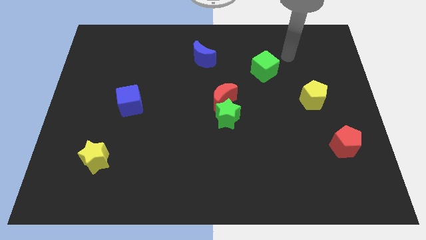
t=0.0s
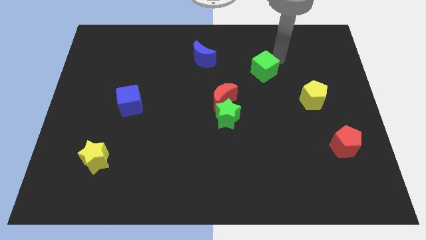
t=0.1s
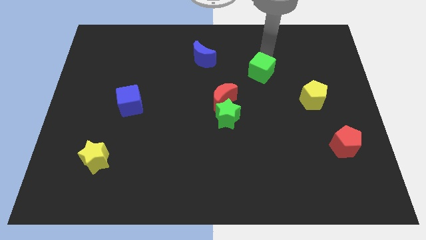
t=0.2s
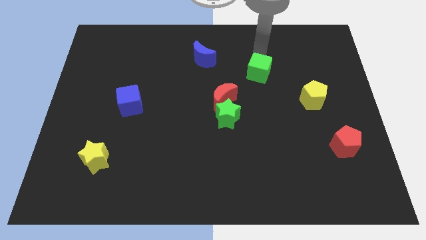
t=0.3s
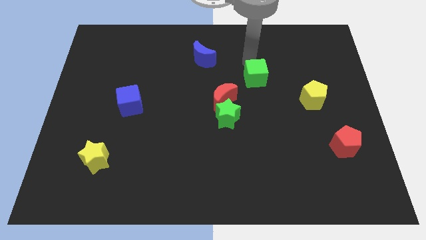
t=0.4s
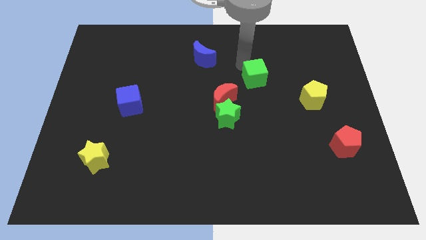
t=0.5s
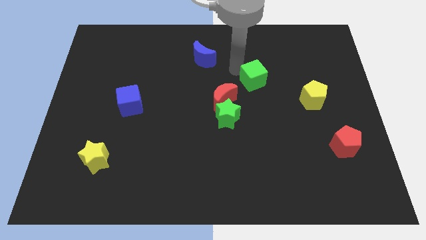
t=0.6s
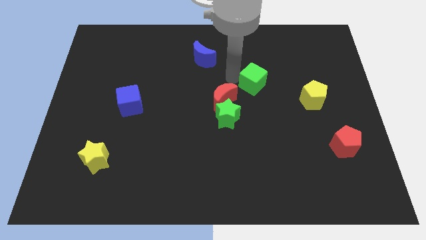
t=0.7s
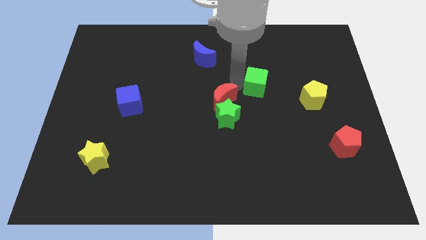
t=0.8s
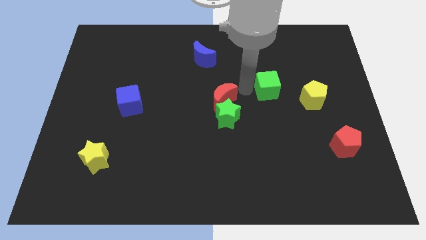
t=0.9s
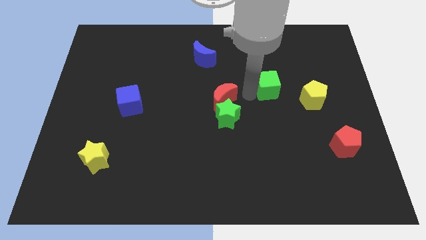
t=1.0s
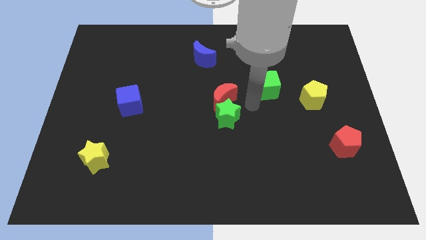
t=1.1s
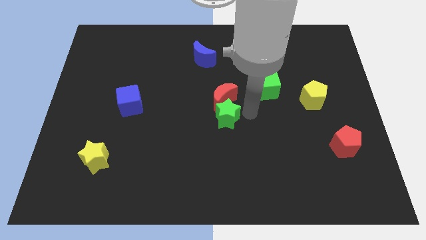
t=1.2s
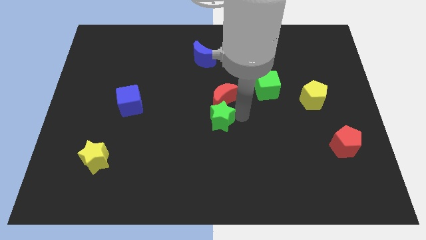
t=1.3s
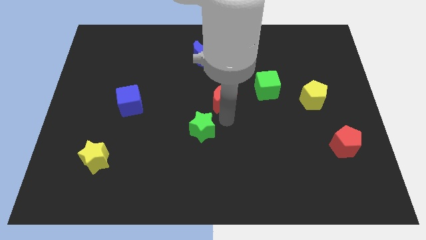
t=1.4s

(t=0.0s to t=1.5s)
pull the red moon apart from the green star

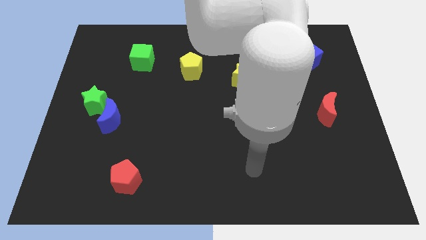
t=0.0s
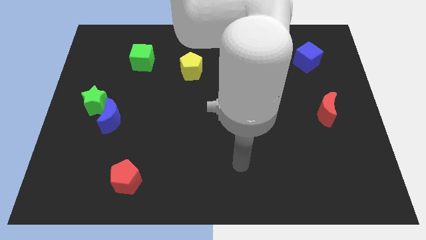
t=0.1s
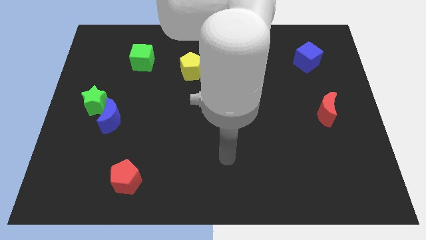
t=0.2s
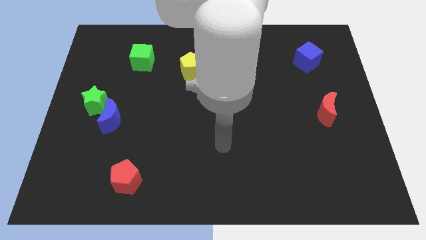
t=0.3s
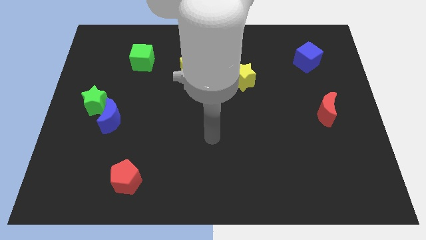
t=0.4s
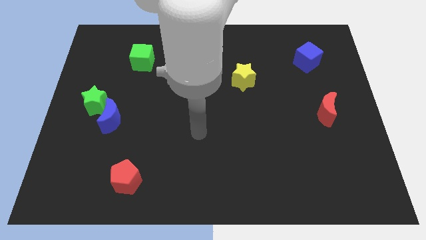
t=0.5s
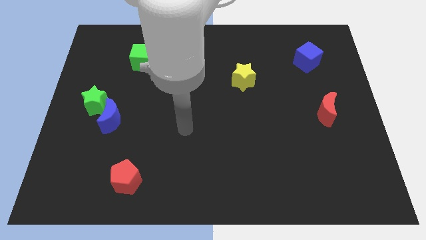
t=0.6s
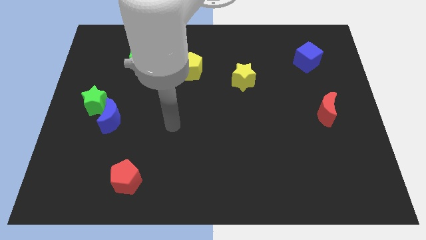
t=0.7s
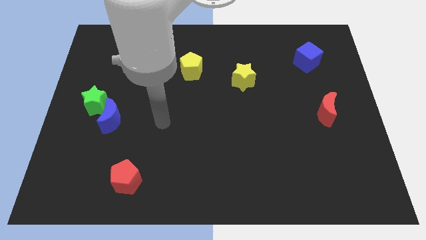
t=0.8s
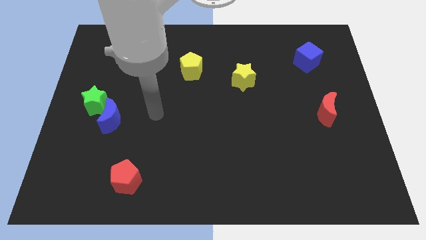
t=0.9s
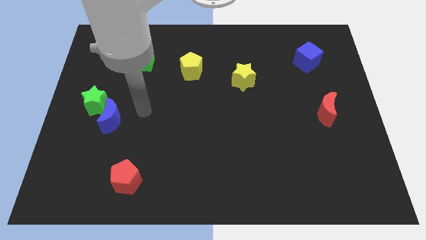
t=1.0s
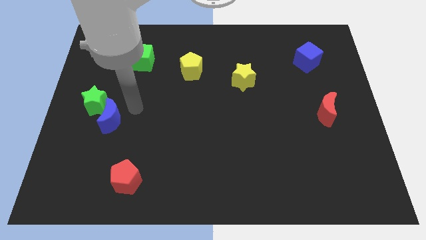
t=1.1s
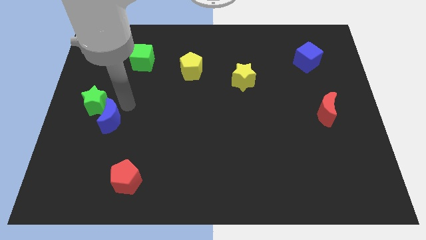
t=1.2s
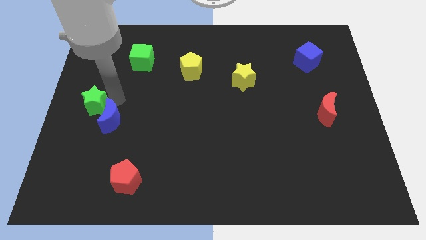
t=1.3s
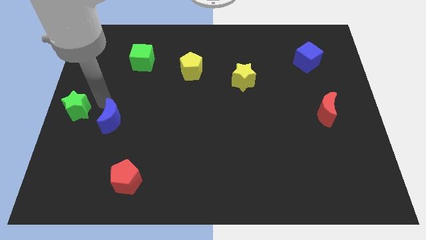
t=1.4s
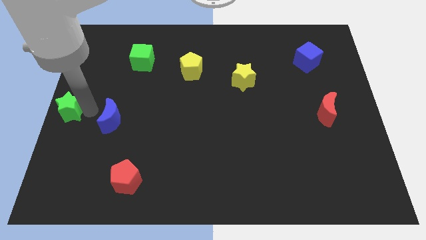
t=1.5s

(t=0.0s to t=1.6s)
separate the blue moon from the green star

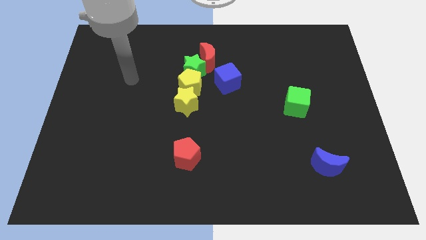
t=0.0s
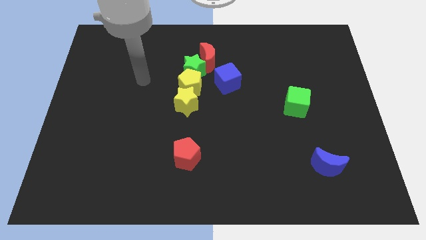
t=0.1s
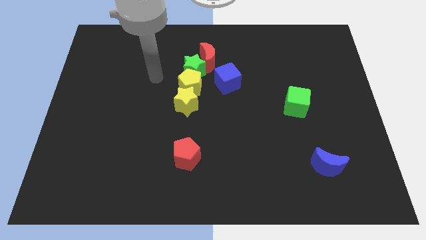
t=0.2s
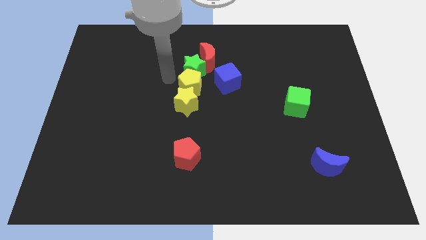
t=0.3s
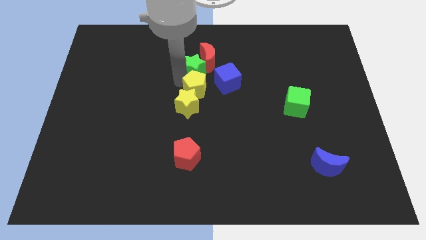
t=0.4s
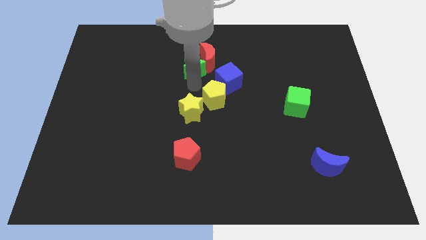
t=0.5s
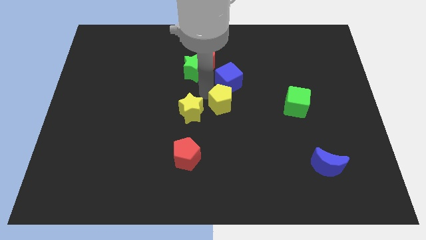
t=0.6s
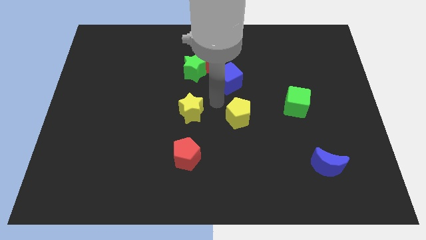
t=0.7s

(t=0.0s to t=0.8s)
separate the yellow star from the yellow pentagon

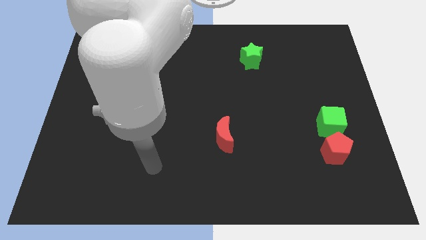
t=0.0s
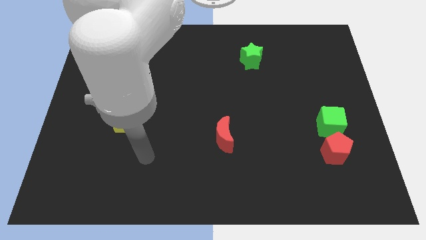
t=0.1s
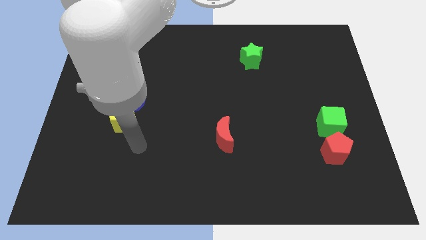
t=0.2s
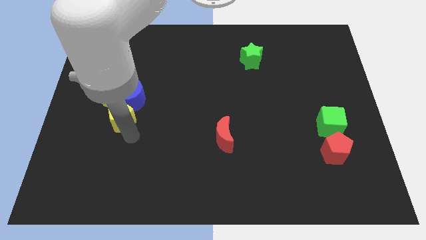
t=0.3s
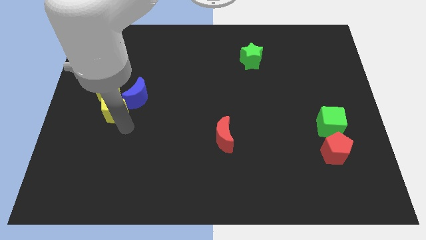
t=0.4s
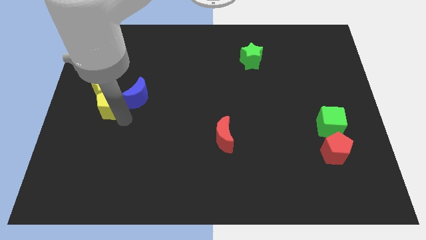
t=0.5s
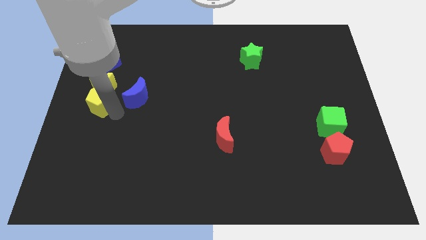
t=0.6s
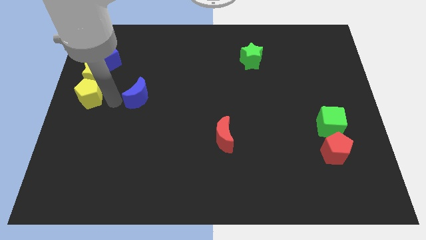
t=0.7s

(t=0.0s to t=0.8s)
move the blue moon away from the yellow star and yellow pentagon

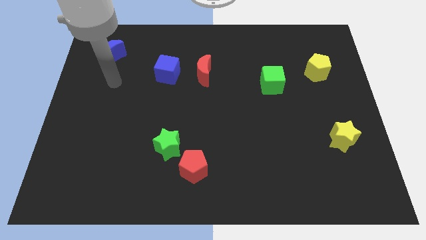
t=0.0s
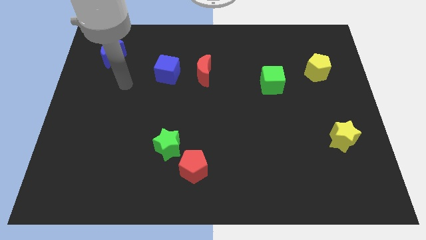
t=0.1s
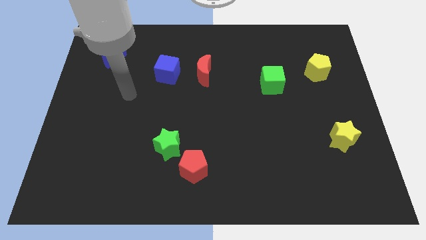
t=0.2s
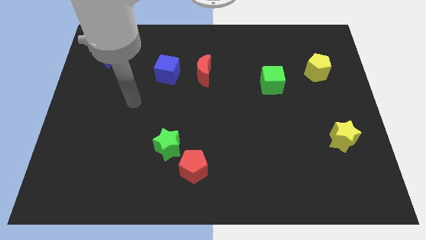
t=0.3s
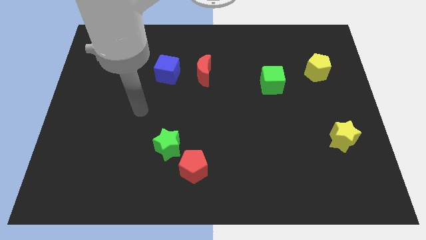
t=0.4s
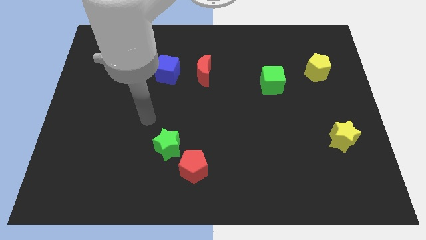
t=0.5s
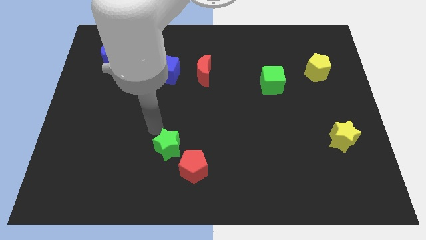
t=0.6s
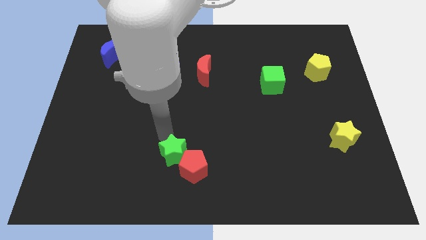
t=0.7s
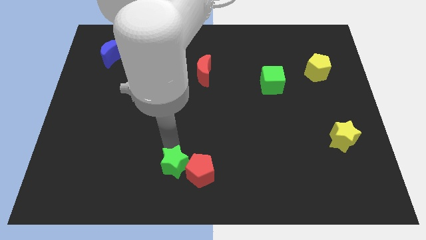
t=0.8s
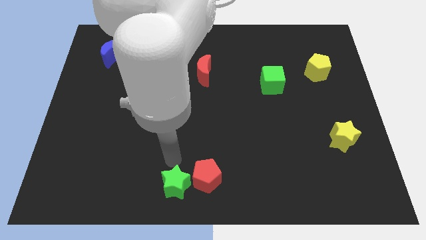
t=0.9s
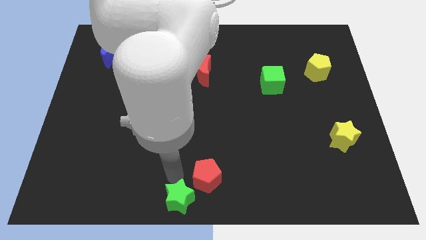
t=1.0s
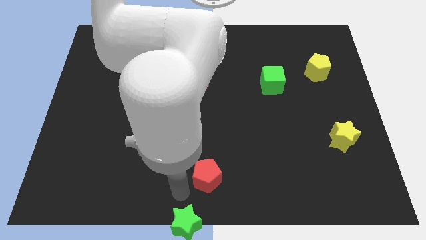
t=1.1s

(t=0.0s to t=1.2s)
separate the red pentagon from the green star

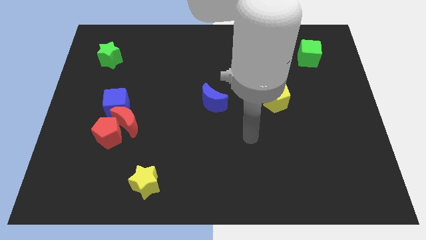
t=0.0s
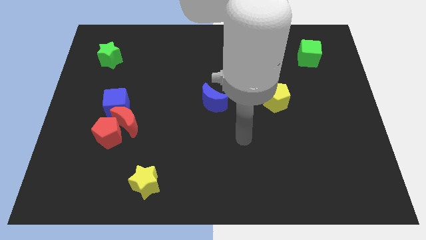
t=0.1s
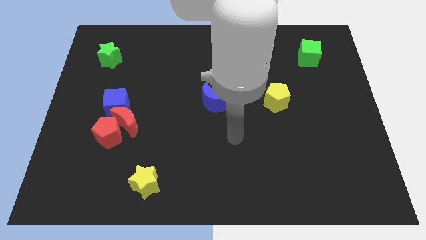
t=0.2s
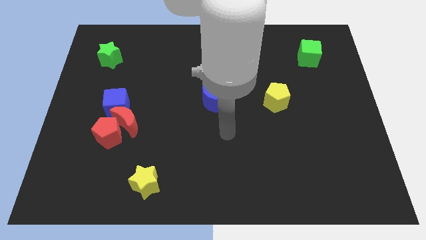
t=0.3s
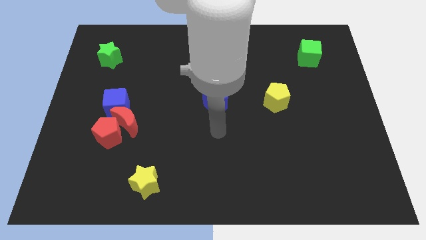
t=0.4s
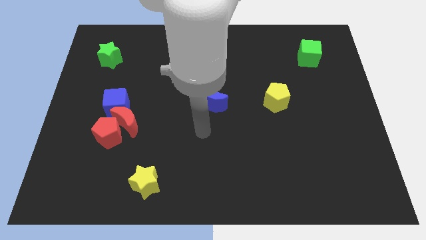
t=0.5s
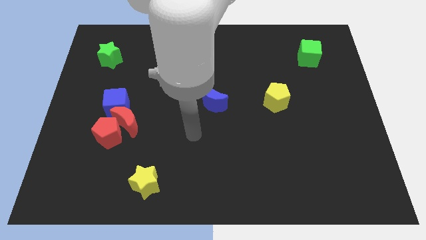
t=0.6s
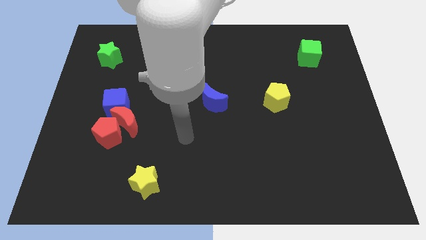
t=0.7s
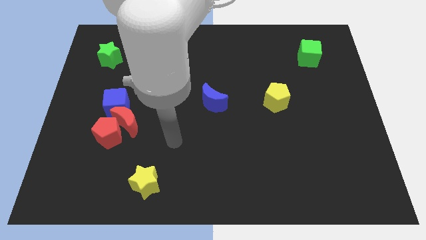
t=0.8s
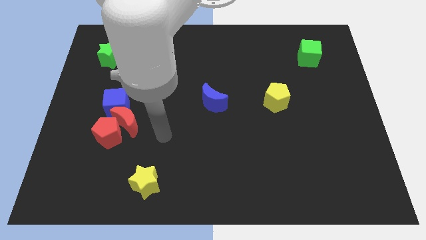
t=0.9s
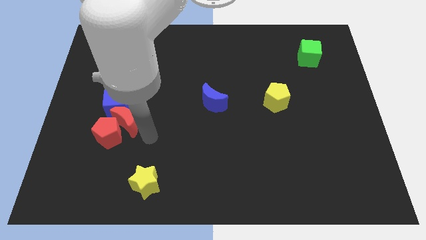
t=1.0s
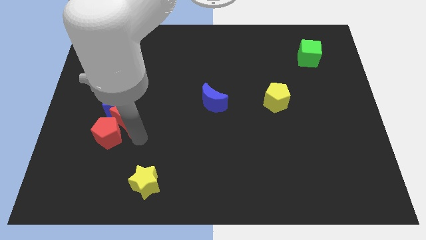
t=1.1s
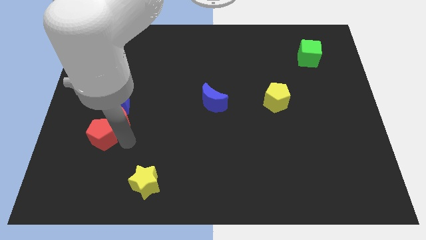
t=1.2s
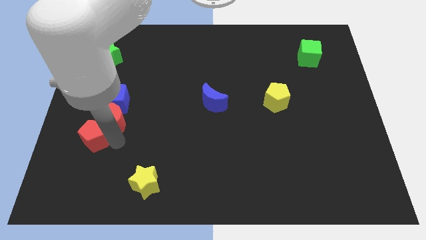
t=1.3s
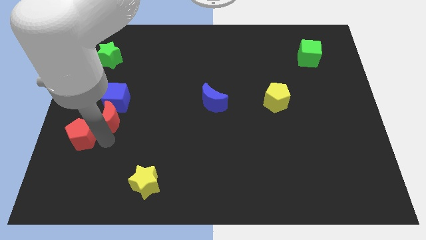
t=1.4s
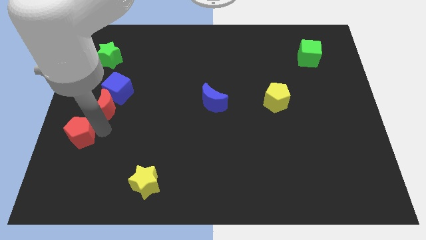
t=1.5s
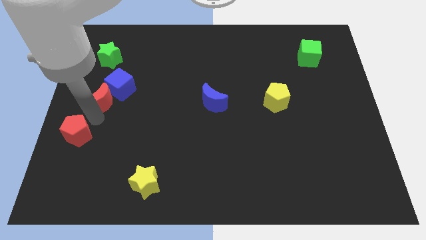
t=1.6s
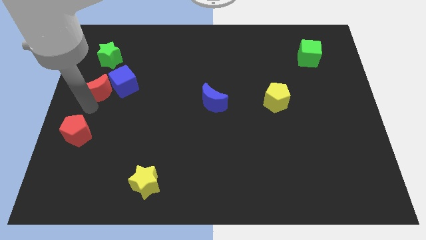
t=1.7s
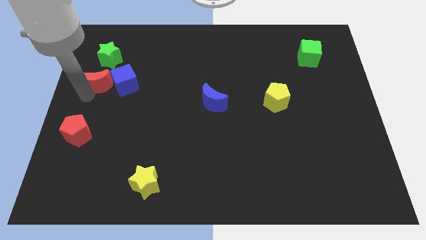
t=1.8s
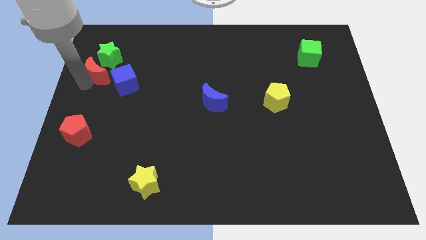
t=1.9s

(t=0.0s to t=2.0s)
move the red moon away from the red pentagon and blue cube

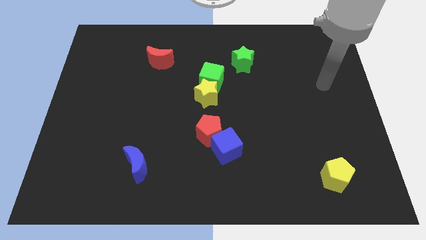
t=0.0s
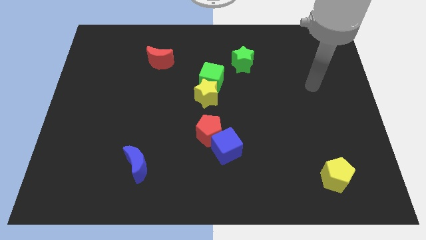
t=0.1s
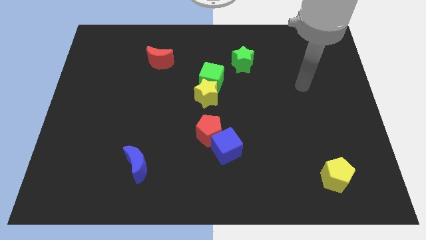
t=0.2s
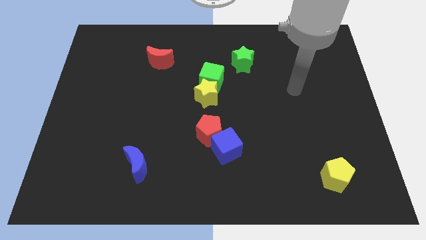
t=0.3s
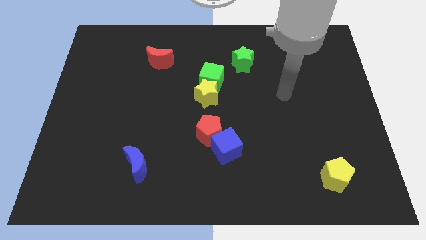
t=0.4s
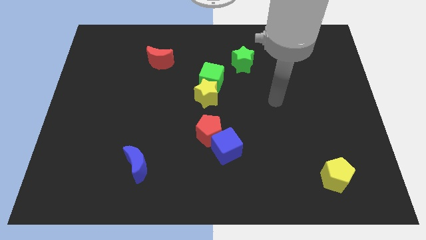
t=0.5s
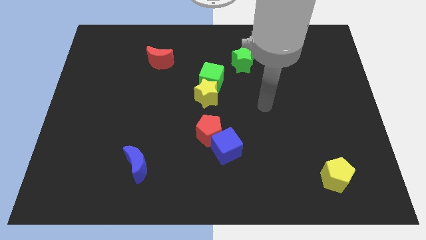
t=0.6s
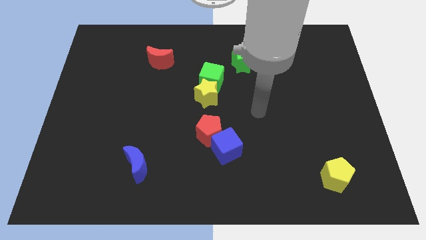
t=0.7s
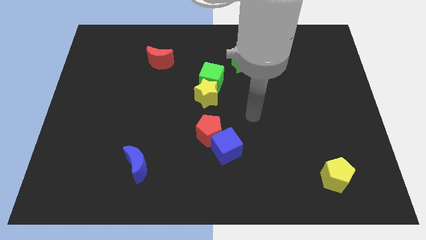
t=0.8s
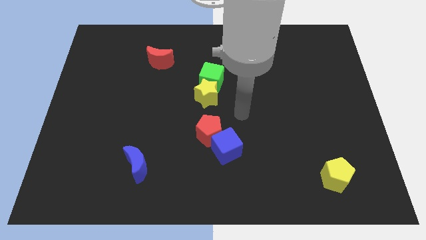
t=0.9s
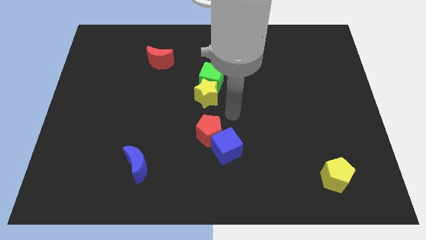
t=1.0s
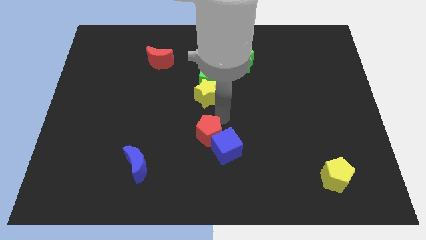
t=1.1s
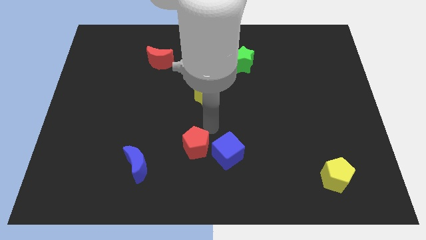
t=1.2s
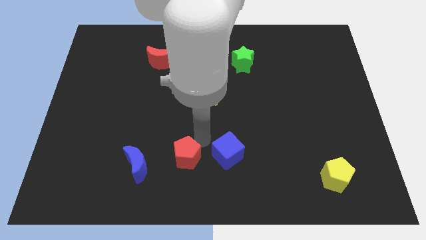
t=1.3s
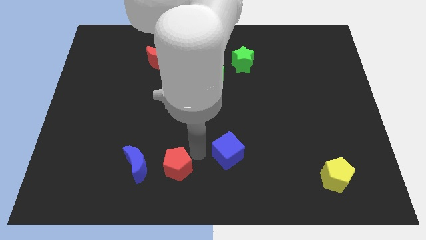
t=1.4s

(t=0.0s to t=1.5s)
separate the blue cube from the red pentagon
